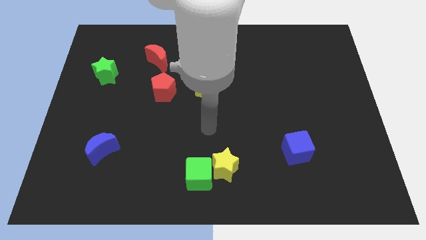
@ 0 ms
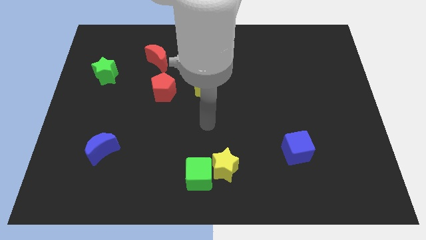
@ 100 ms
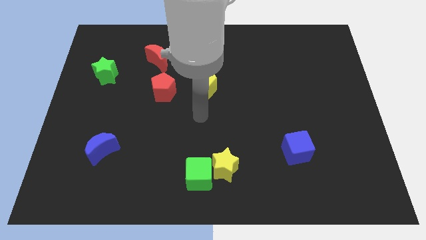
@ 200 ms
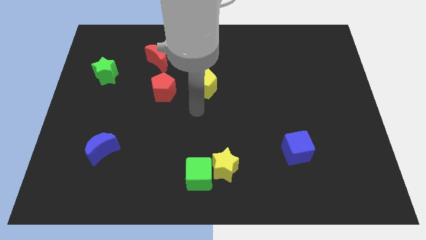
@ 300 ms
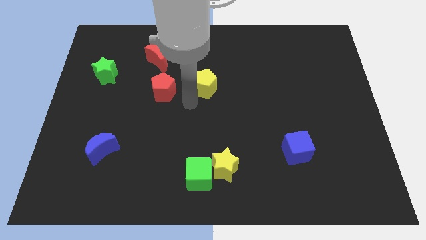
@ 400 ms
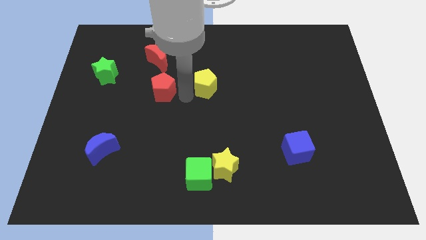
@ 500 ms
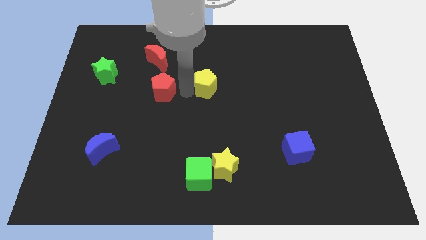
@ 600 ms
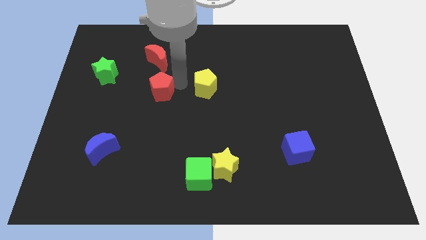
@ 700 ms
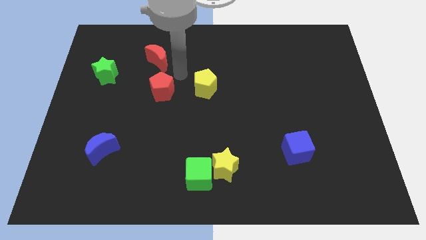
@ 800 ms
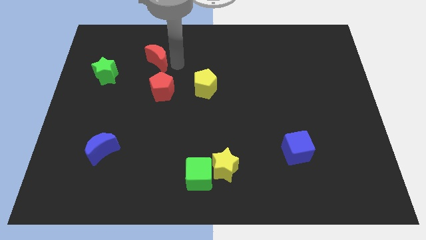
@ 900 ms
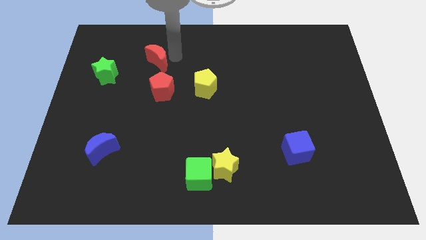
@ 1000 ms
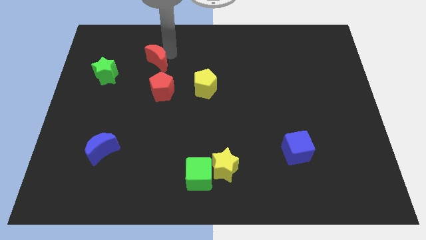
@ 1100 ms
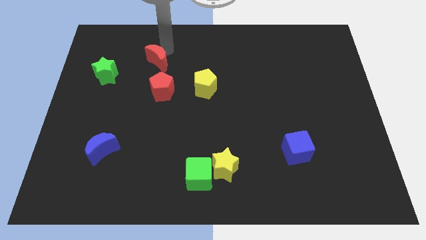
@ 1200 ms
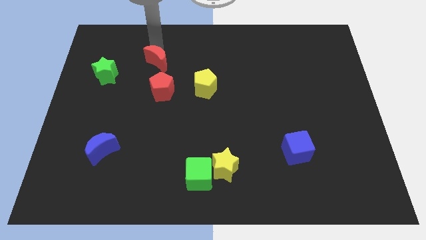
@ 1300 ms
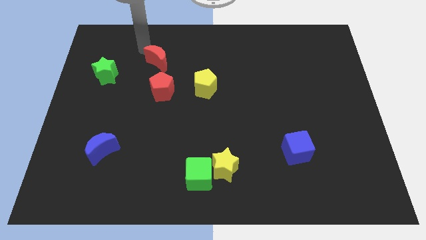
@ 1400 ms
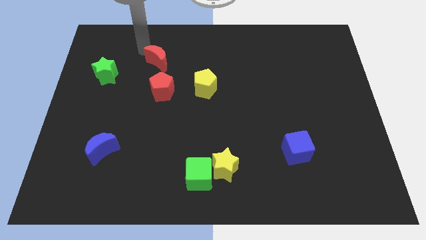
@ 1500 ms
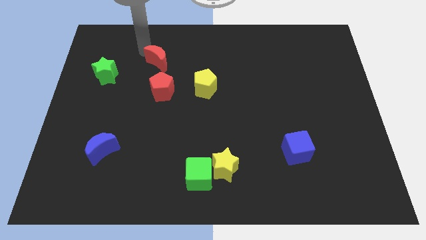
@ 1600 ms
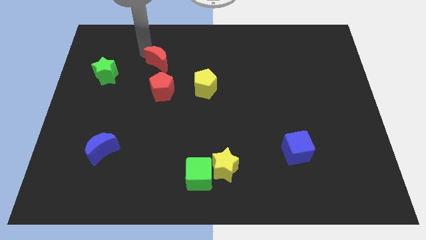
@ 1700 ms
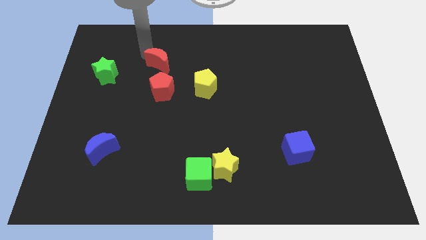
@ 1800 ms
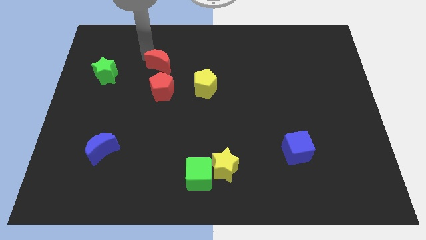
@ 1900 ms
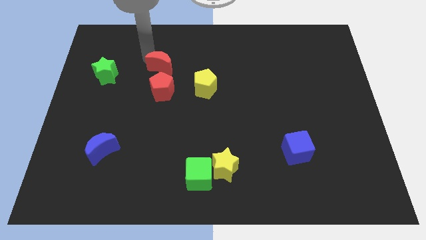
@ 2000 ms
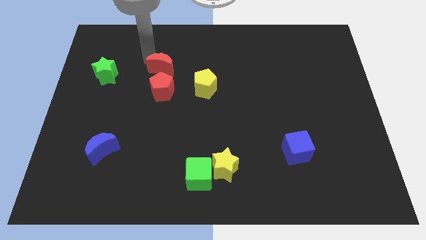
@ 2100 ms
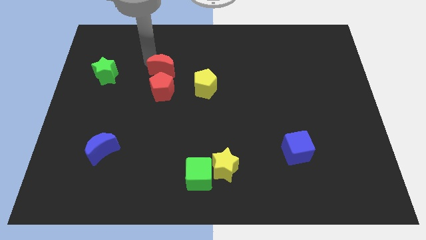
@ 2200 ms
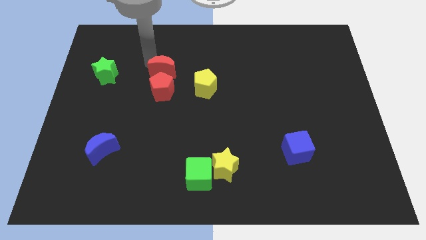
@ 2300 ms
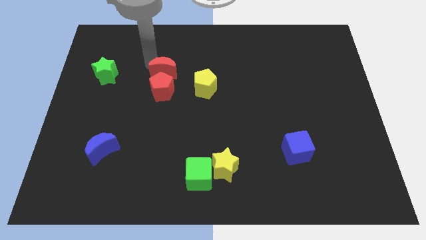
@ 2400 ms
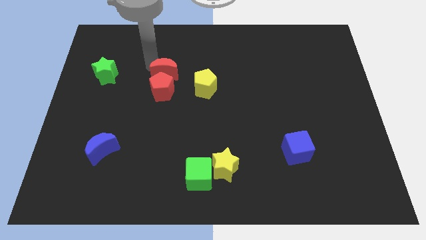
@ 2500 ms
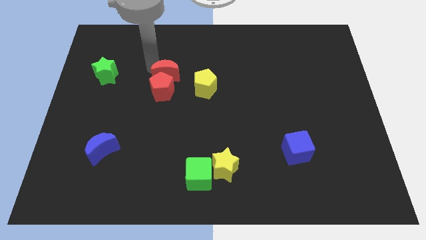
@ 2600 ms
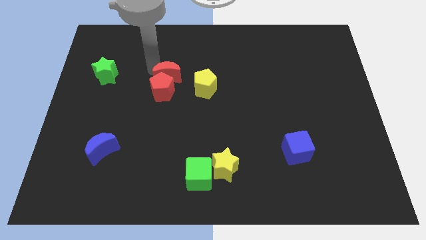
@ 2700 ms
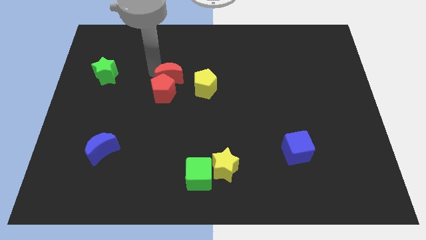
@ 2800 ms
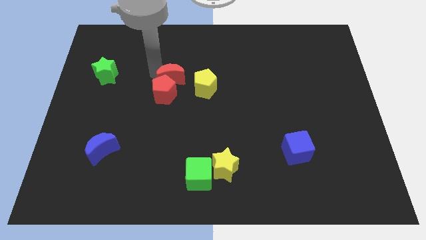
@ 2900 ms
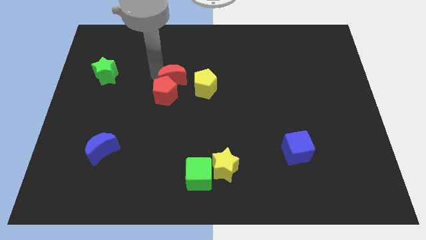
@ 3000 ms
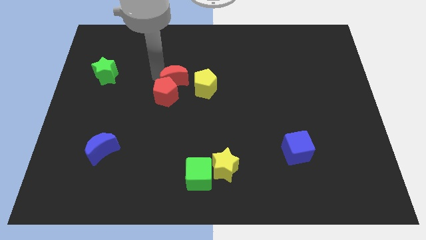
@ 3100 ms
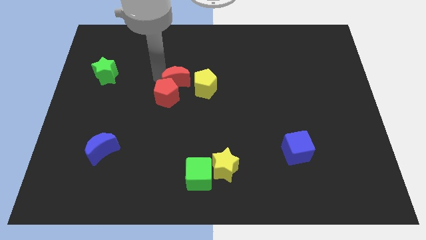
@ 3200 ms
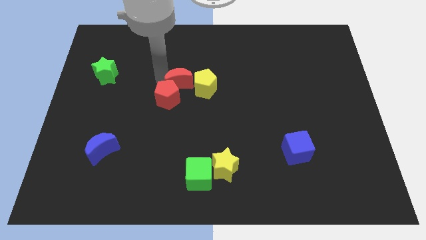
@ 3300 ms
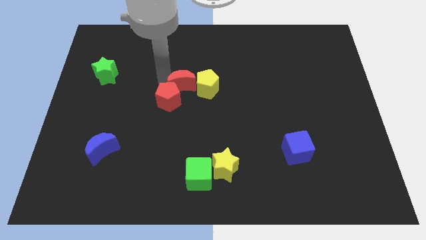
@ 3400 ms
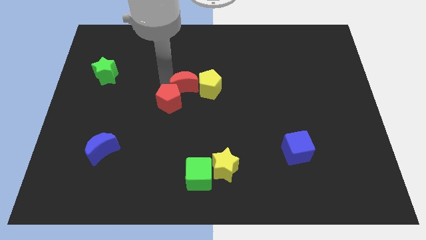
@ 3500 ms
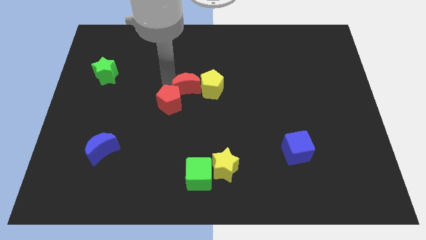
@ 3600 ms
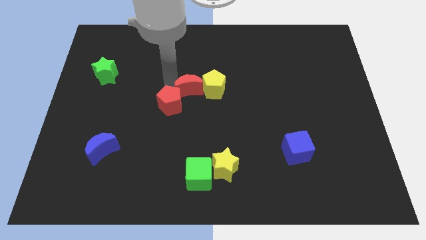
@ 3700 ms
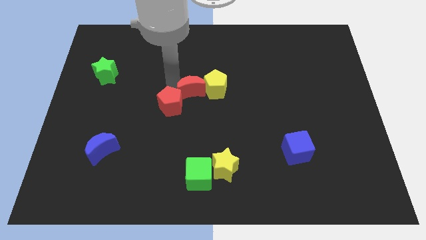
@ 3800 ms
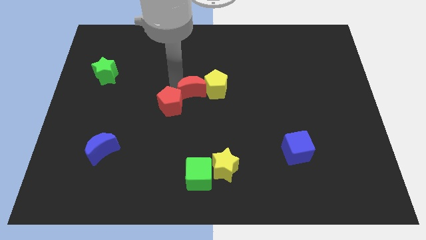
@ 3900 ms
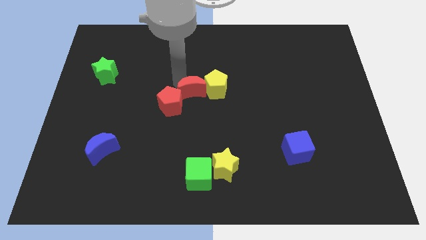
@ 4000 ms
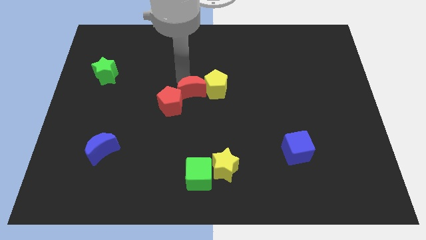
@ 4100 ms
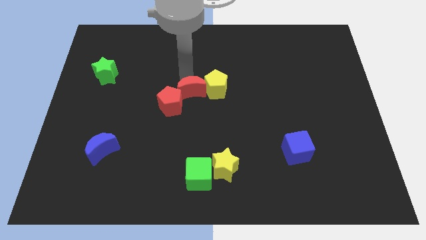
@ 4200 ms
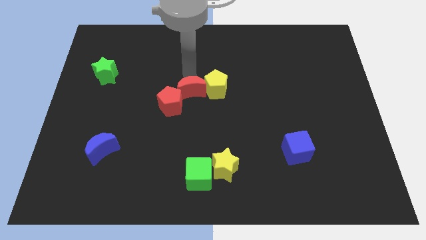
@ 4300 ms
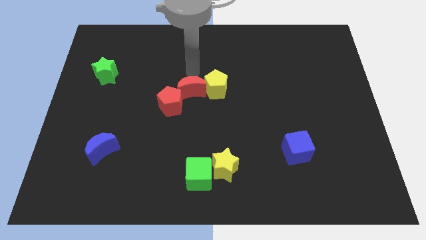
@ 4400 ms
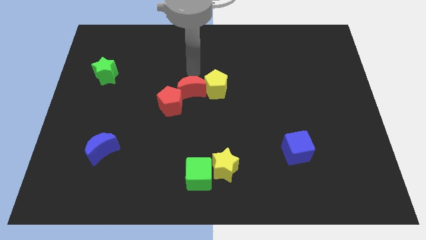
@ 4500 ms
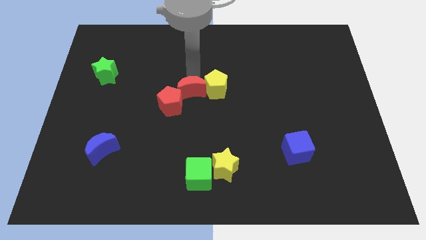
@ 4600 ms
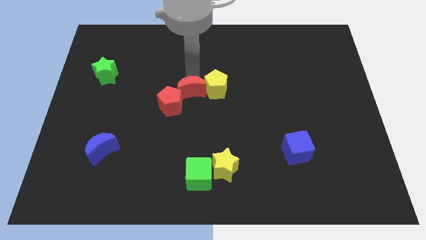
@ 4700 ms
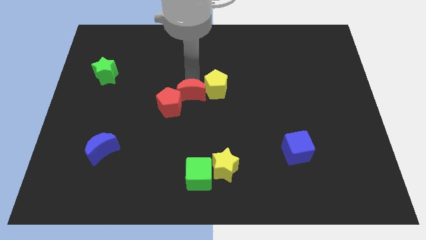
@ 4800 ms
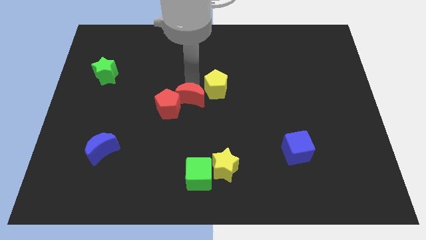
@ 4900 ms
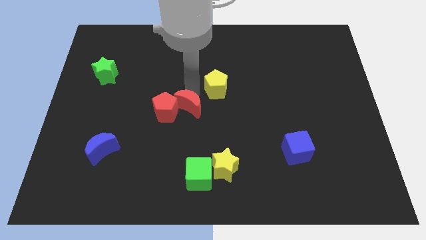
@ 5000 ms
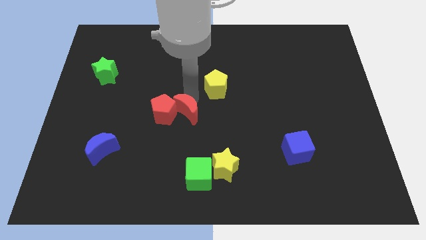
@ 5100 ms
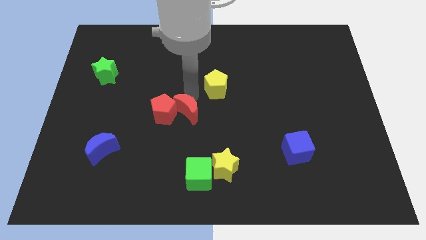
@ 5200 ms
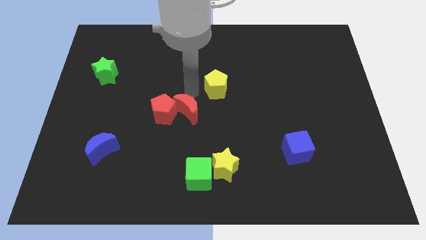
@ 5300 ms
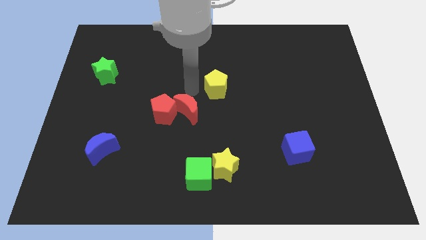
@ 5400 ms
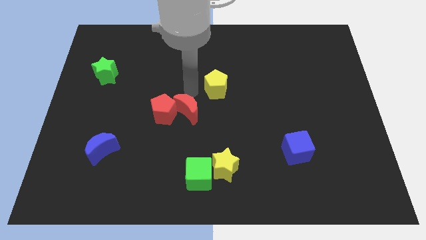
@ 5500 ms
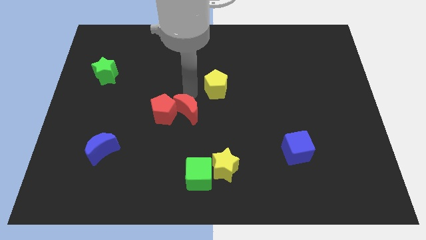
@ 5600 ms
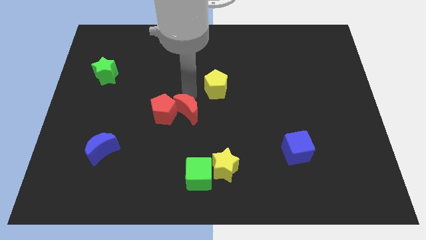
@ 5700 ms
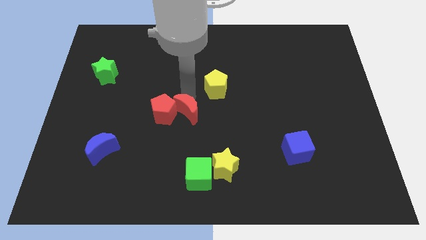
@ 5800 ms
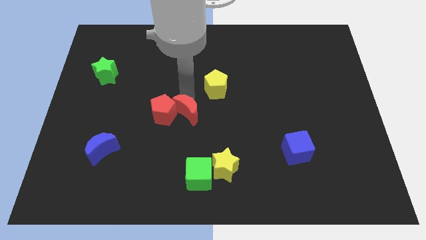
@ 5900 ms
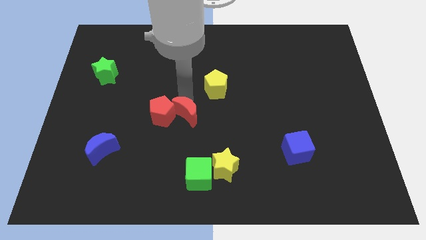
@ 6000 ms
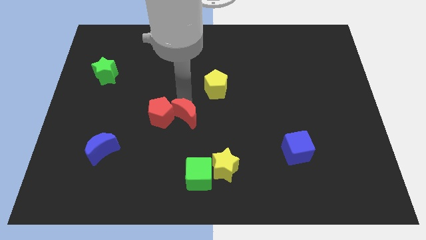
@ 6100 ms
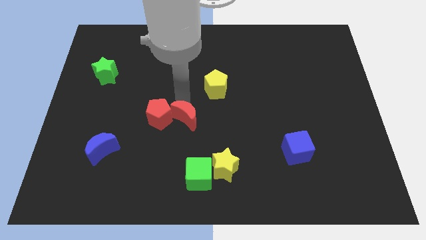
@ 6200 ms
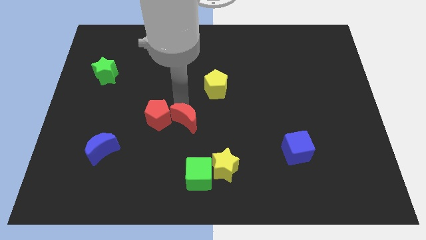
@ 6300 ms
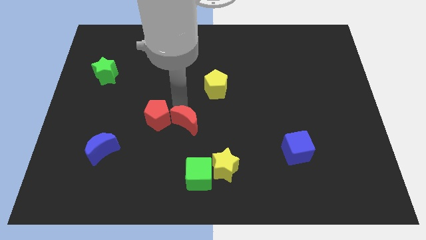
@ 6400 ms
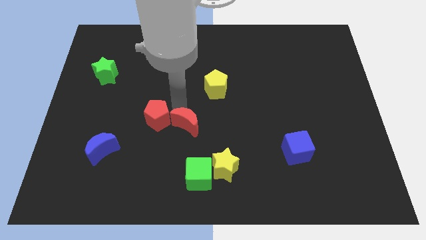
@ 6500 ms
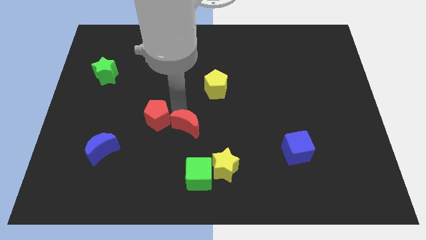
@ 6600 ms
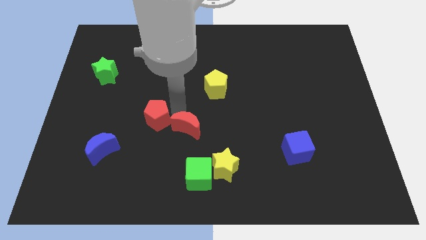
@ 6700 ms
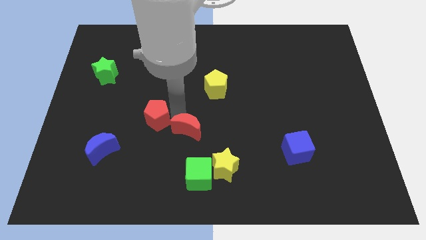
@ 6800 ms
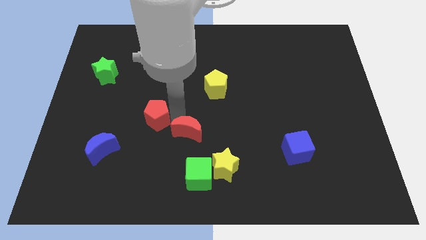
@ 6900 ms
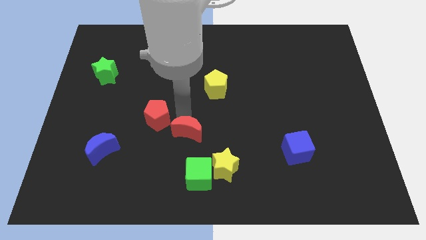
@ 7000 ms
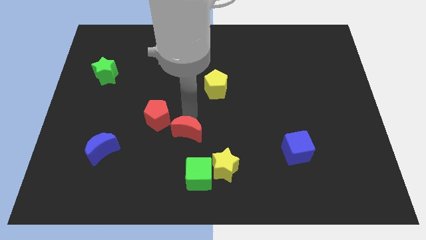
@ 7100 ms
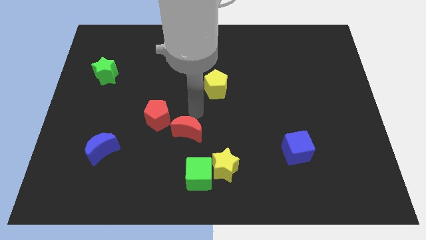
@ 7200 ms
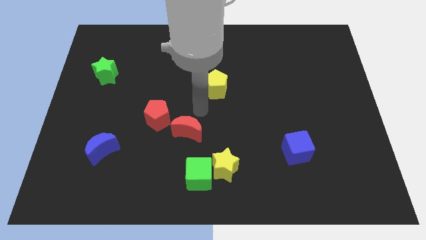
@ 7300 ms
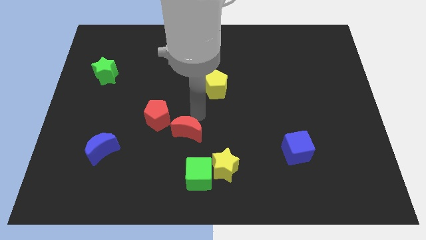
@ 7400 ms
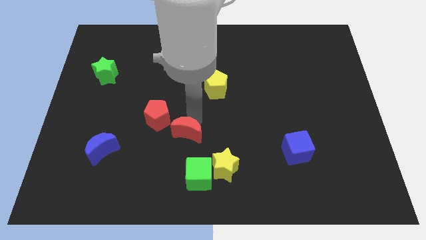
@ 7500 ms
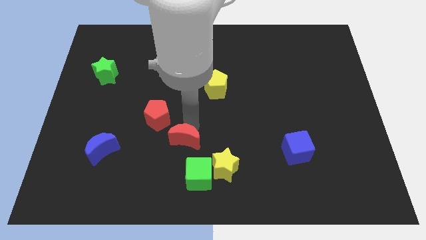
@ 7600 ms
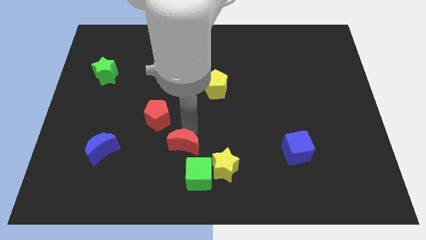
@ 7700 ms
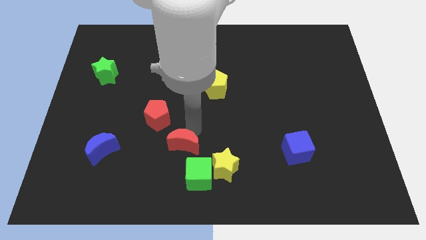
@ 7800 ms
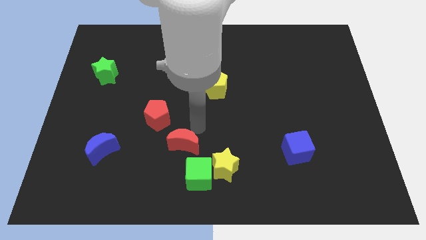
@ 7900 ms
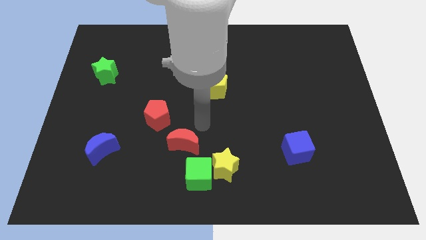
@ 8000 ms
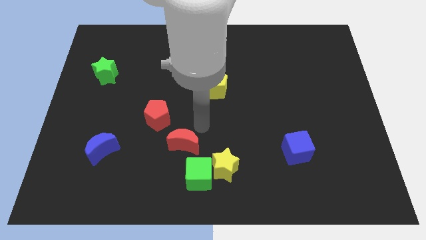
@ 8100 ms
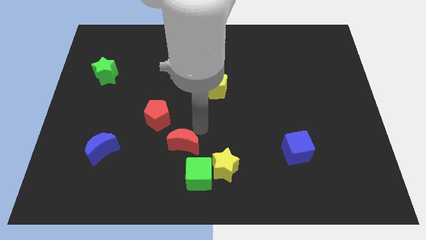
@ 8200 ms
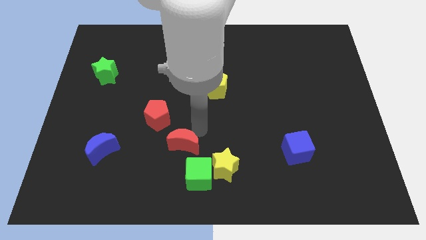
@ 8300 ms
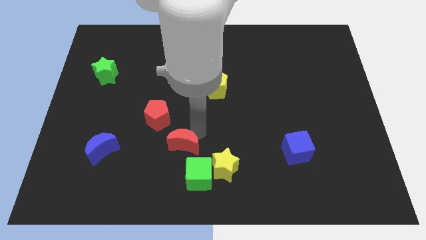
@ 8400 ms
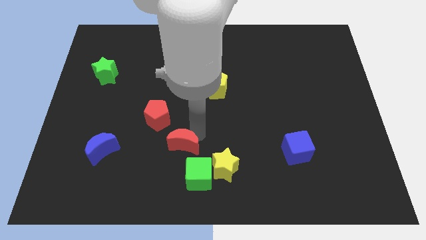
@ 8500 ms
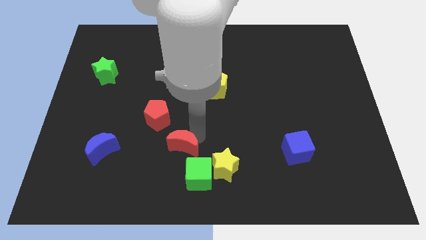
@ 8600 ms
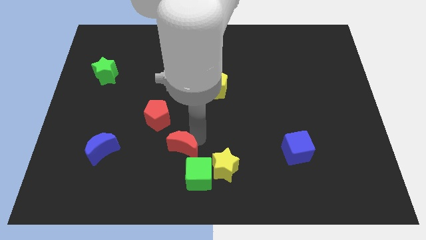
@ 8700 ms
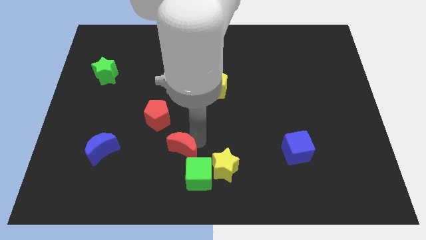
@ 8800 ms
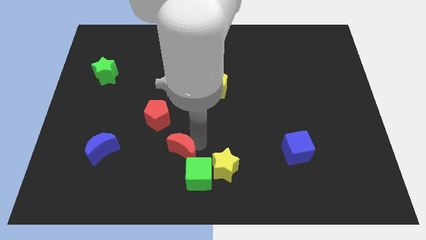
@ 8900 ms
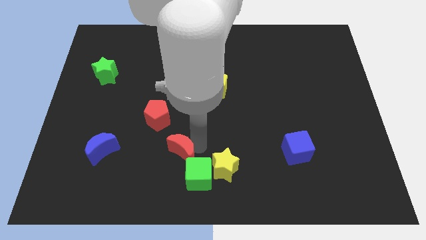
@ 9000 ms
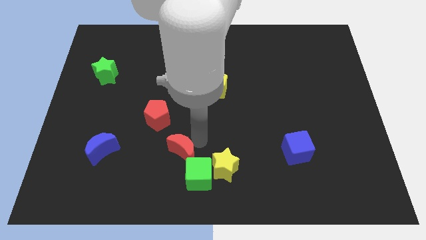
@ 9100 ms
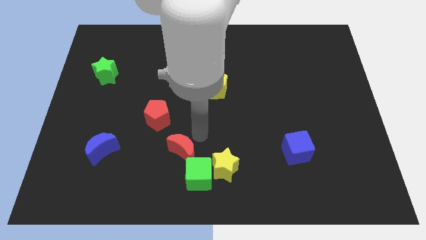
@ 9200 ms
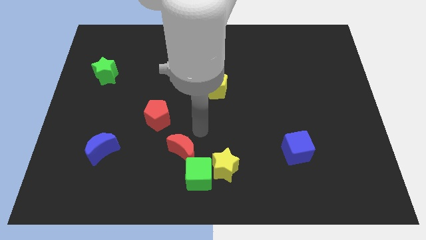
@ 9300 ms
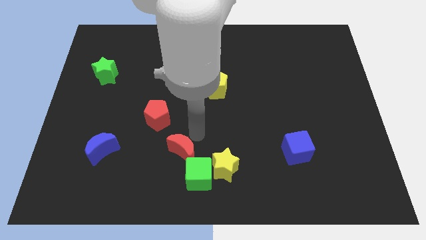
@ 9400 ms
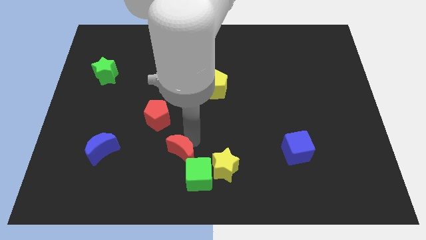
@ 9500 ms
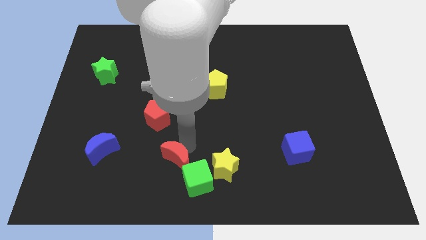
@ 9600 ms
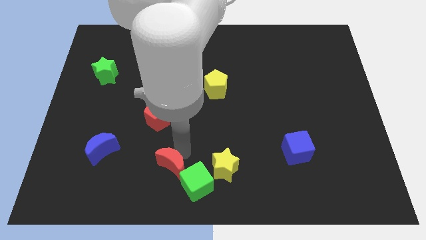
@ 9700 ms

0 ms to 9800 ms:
move the red moon to the bottom side
